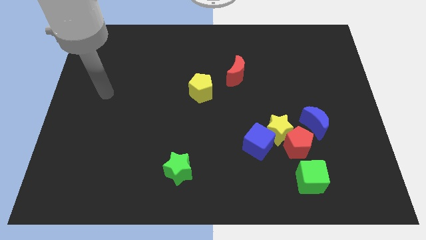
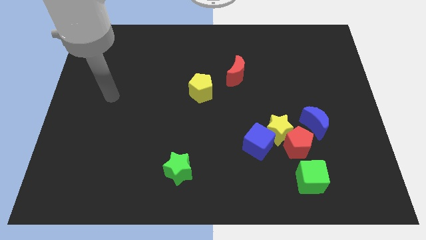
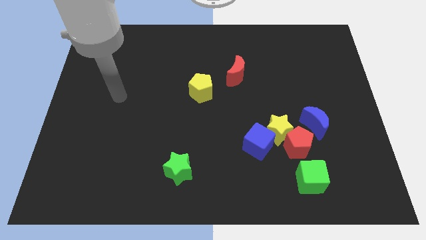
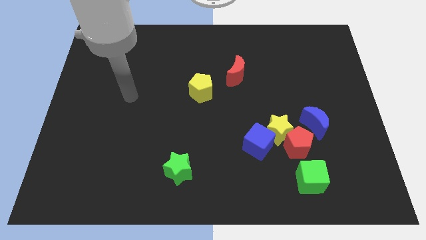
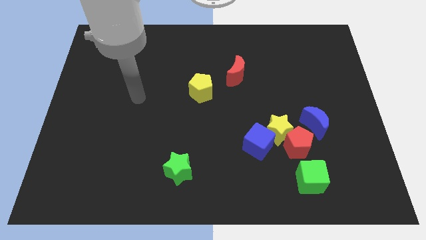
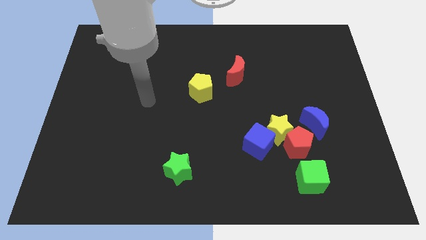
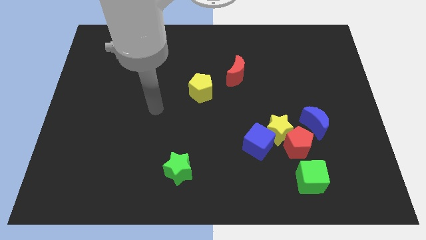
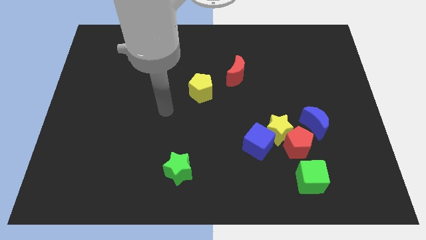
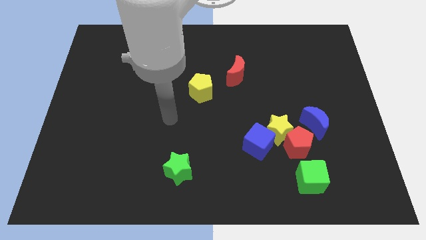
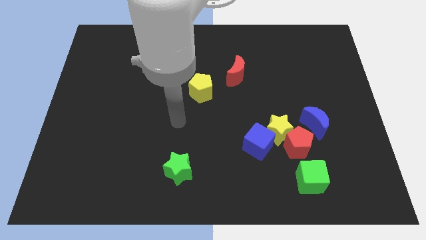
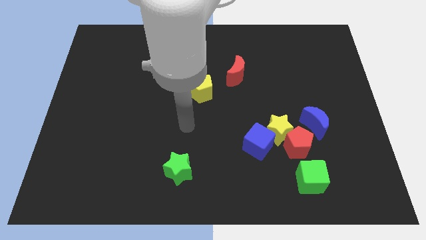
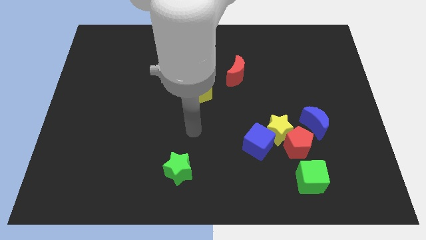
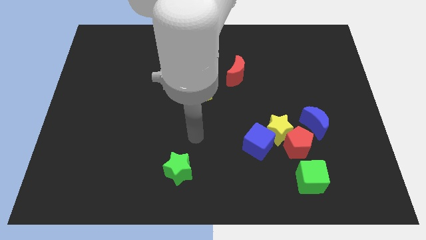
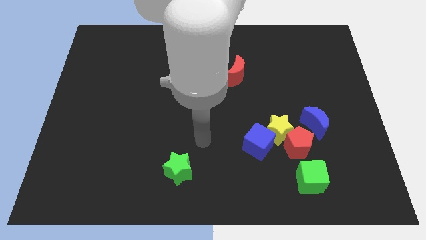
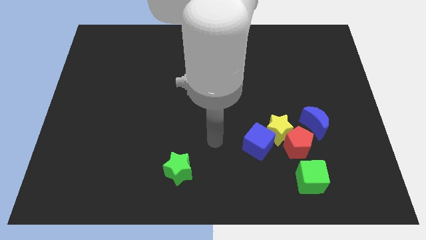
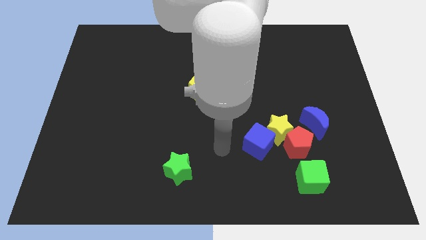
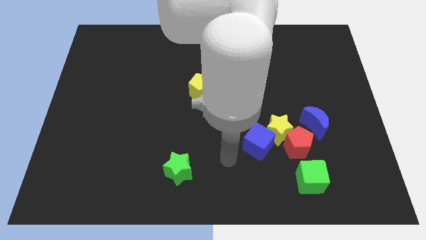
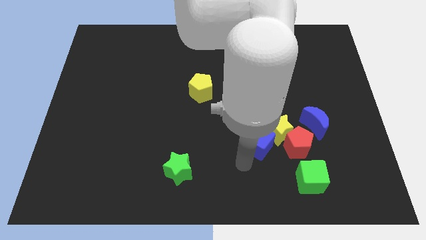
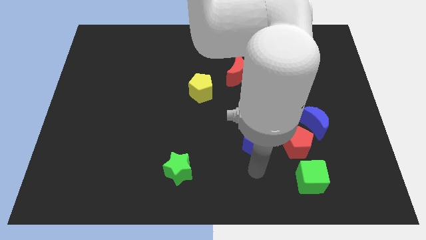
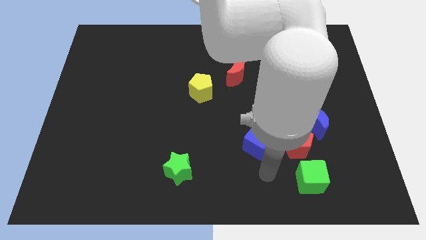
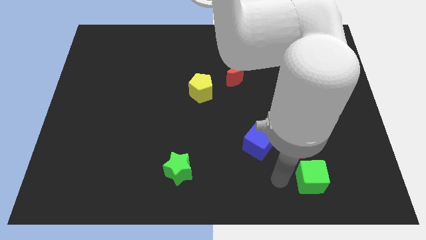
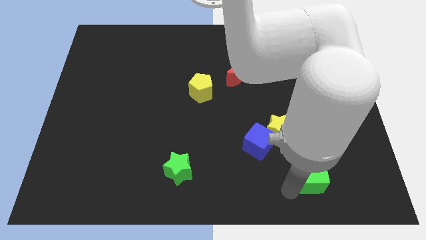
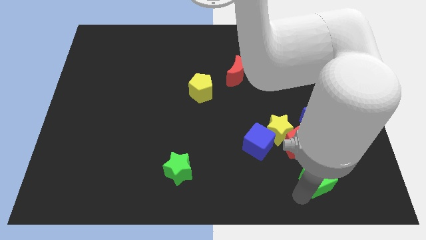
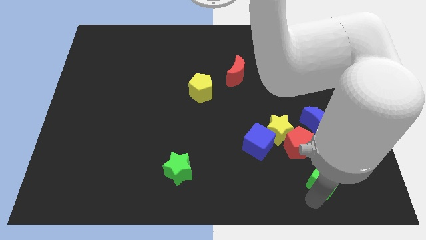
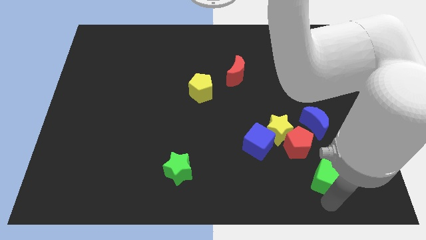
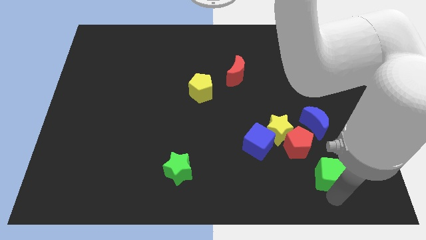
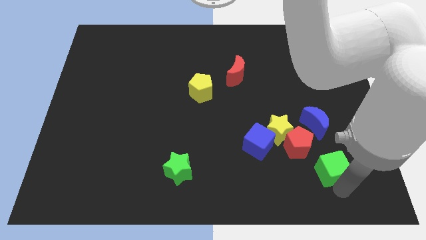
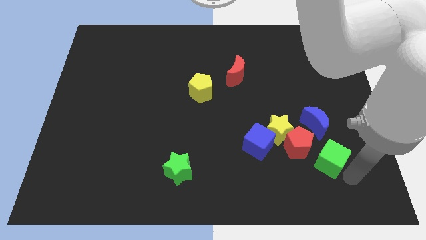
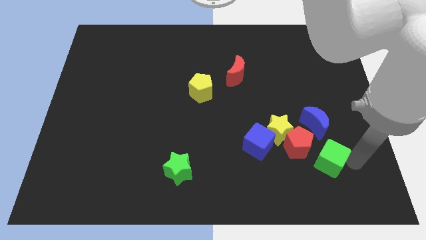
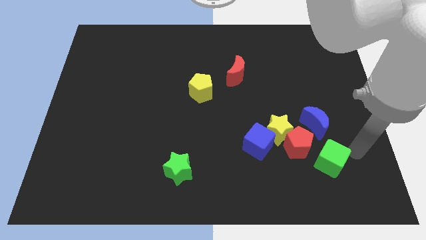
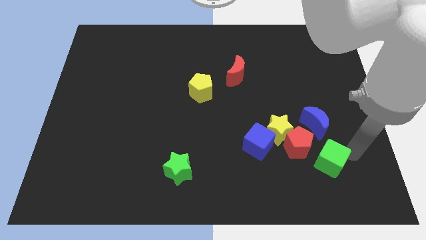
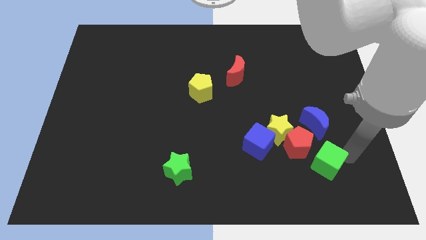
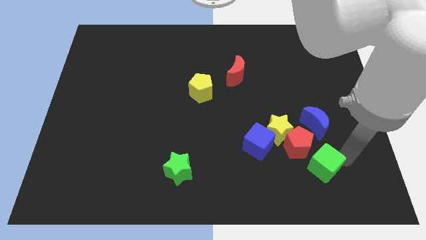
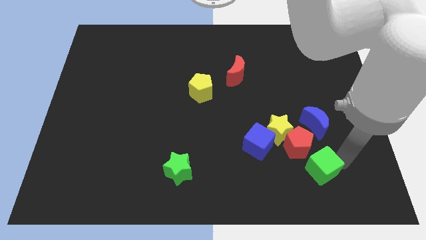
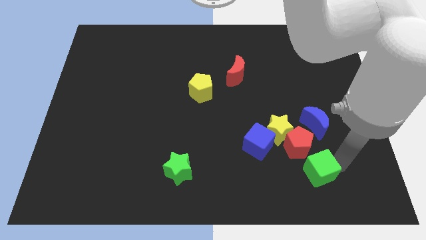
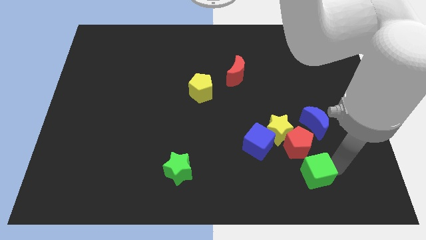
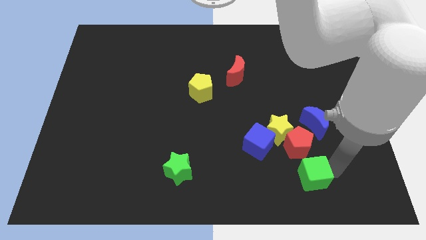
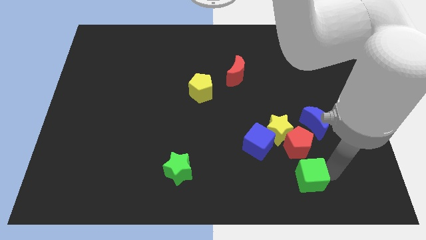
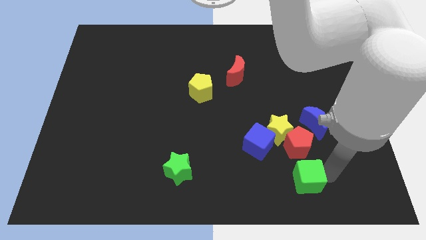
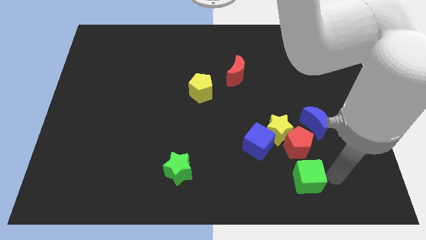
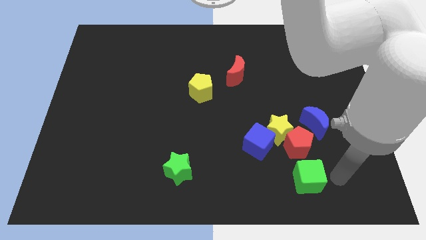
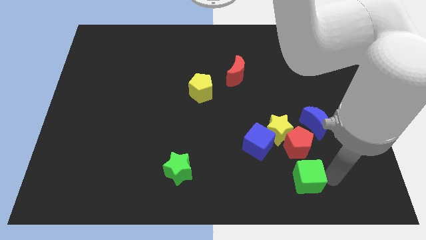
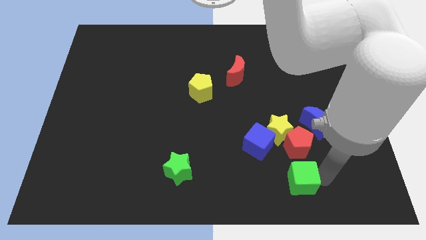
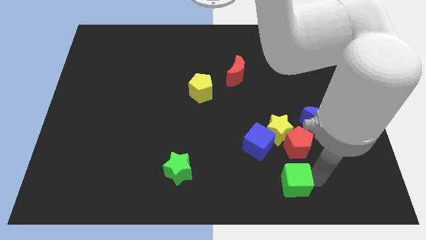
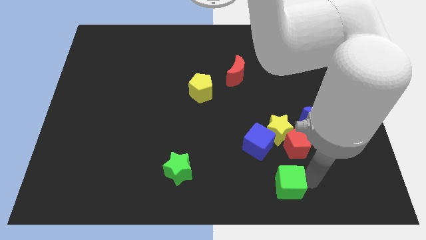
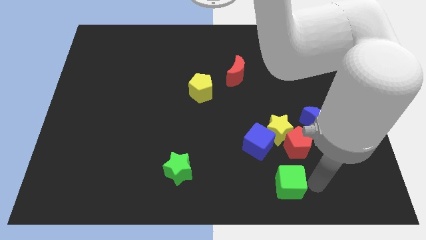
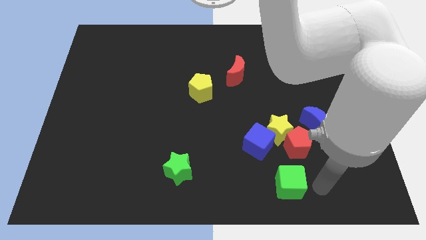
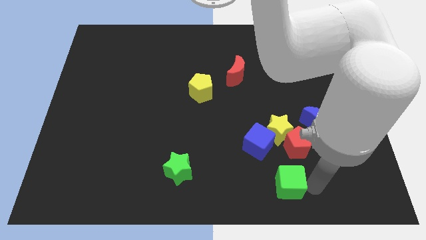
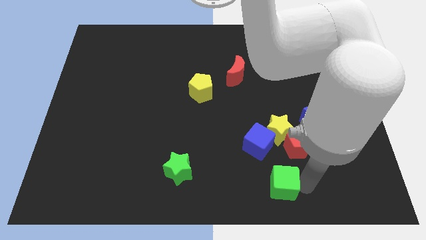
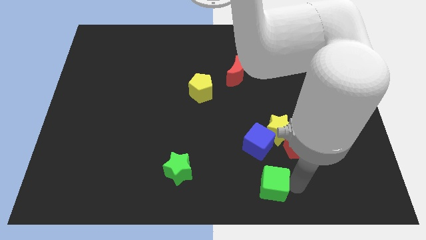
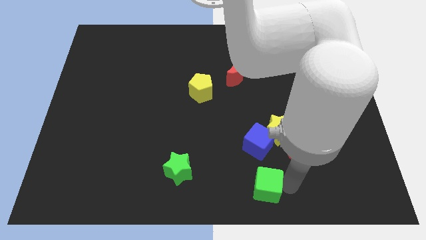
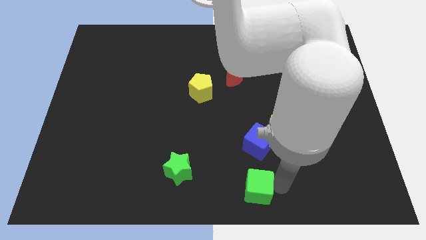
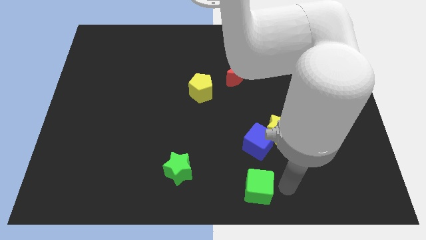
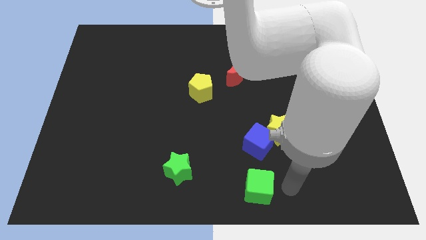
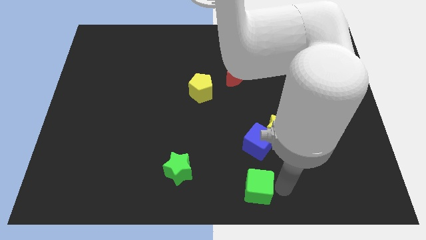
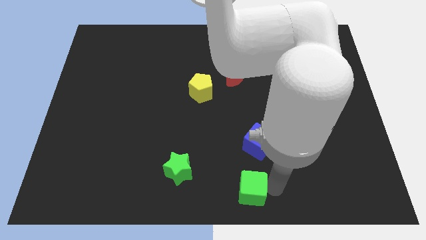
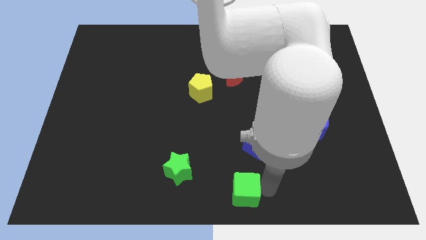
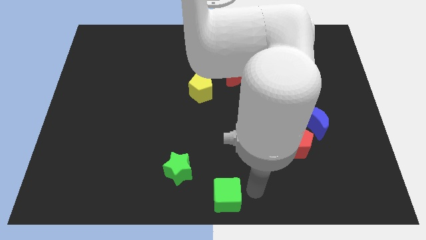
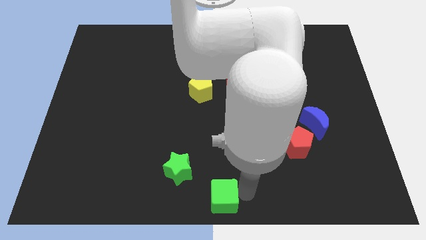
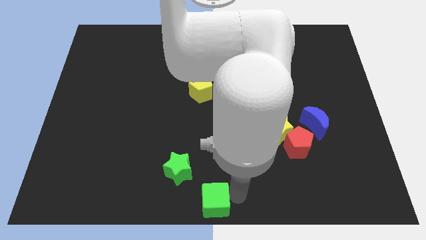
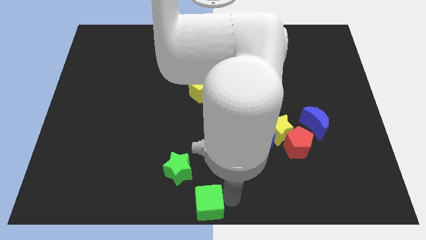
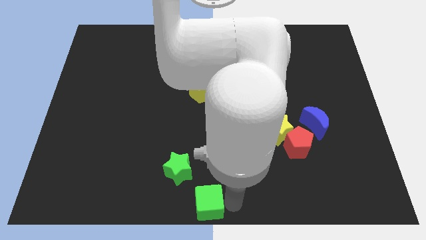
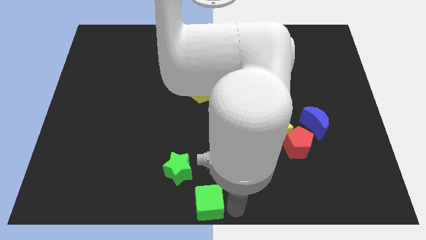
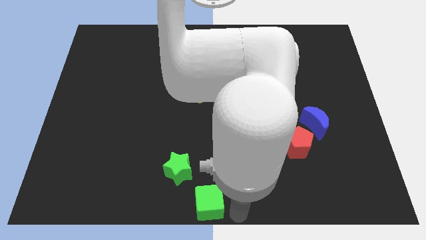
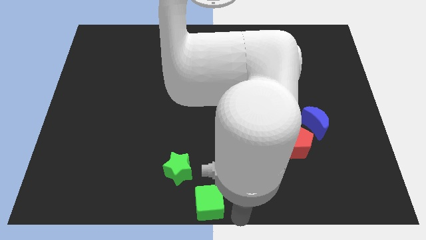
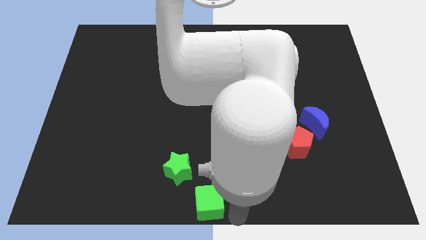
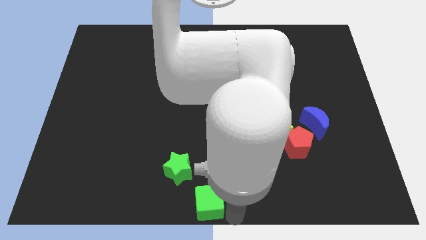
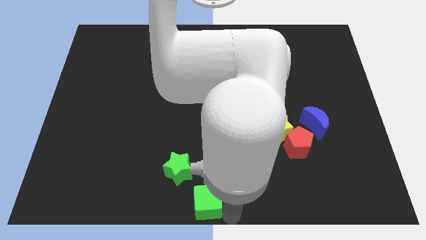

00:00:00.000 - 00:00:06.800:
push the green cube left

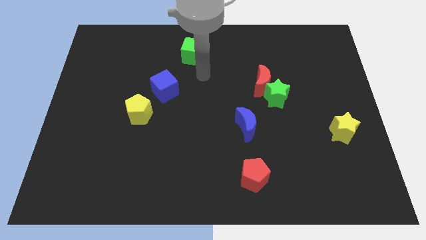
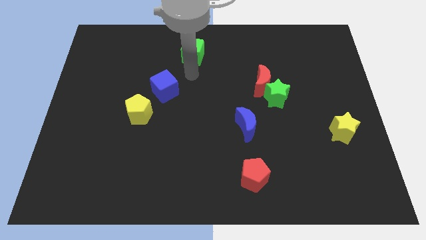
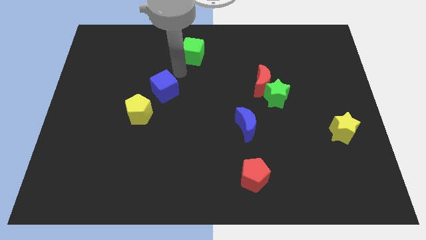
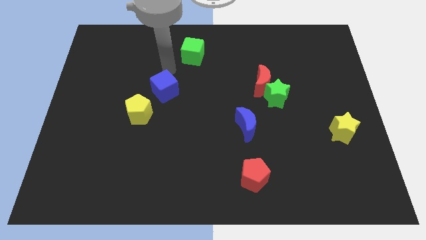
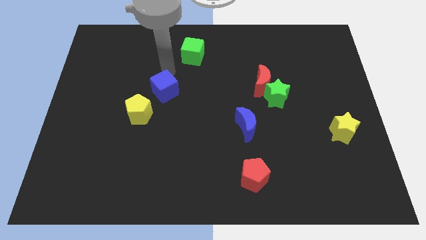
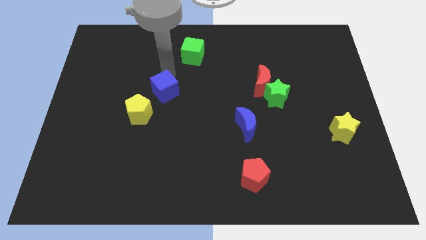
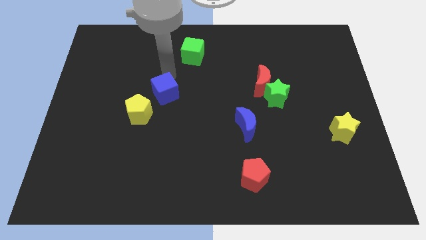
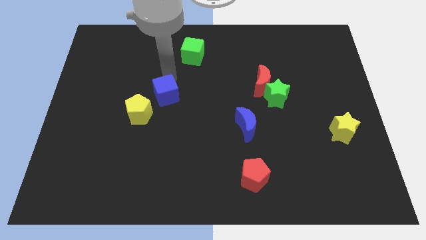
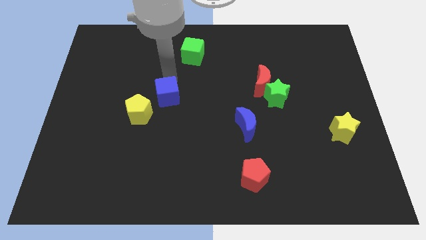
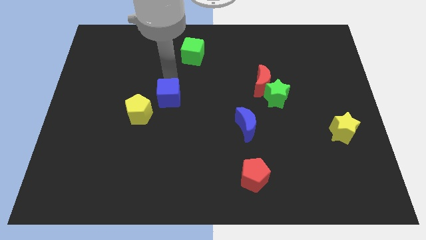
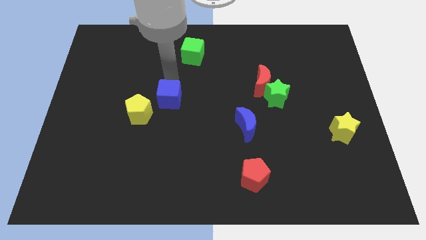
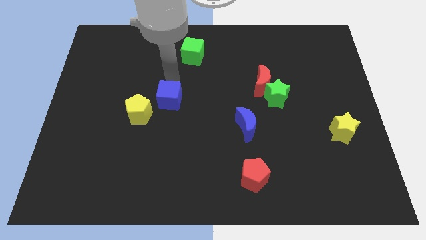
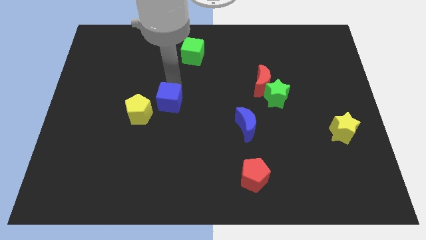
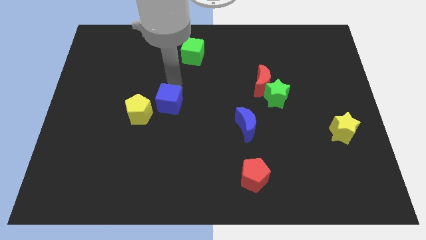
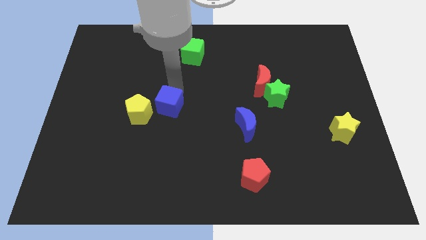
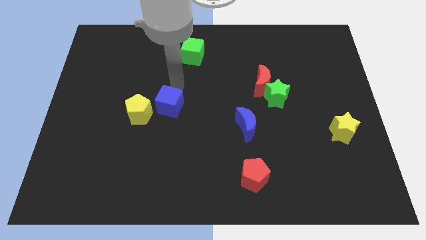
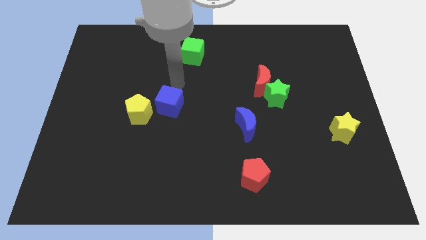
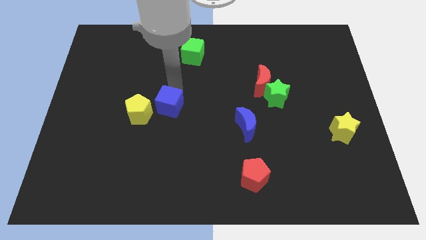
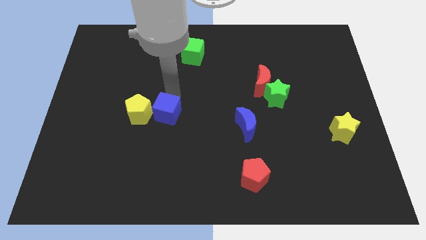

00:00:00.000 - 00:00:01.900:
slightly move the blue cube downwards
